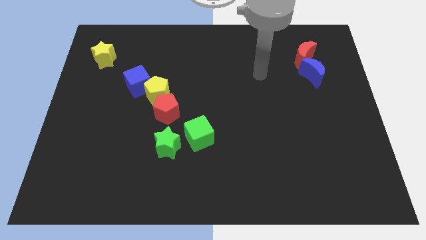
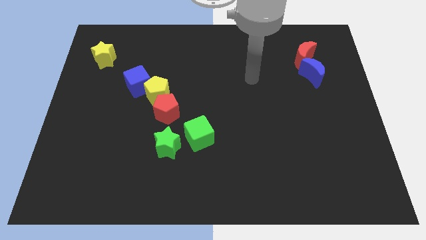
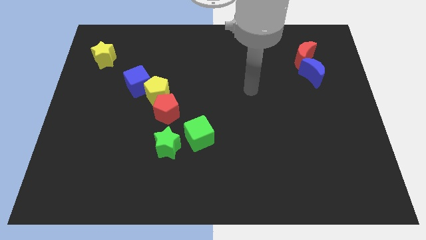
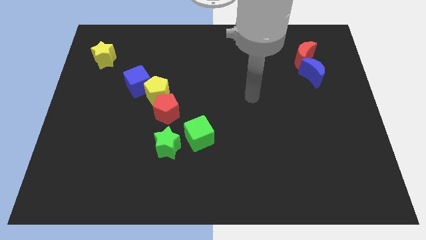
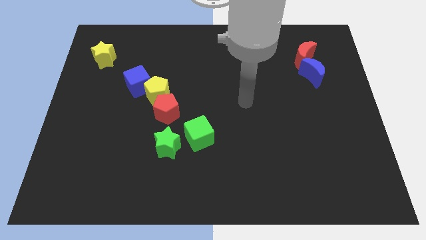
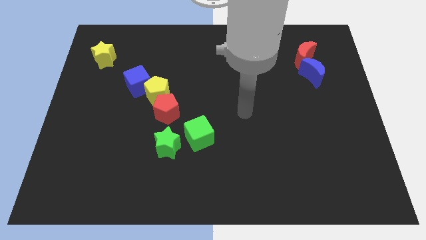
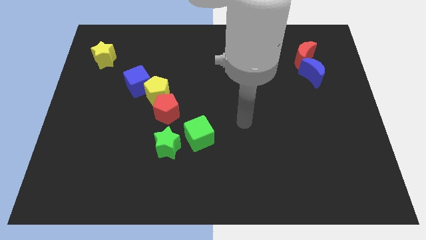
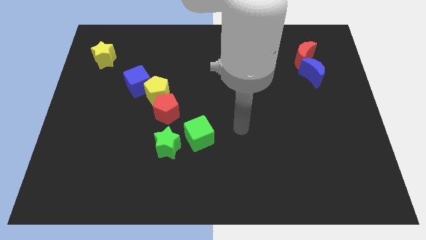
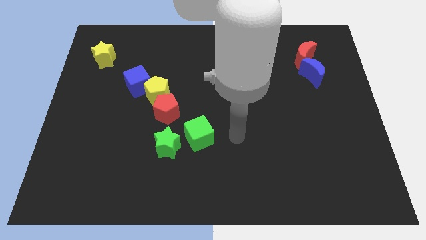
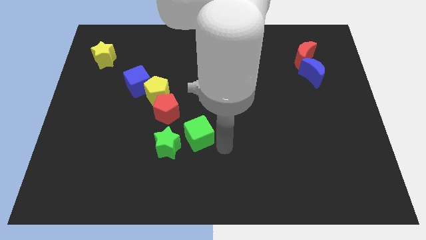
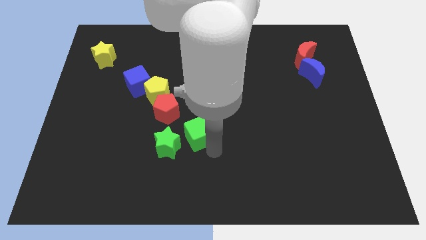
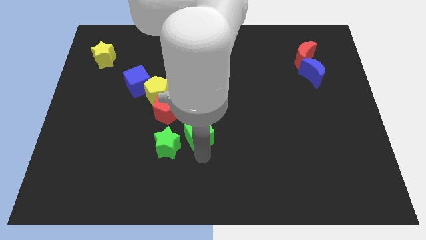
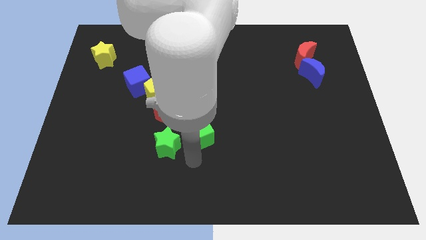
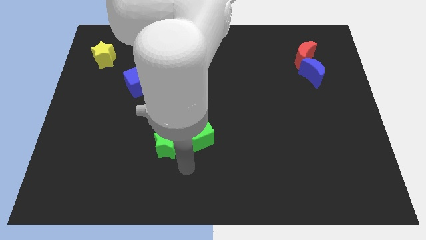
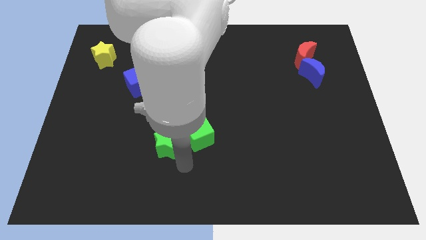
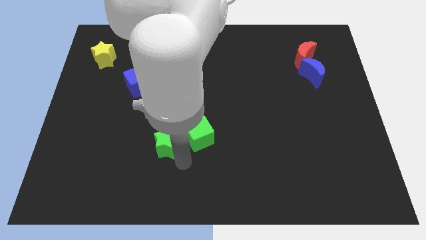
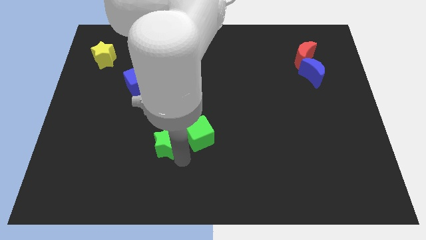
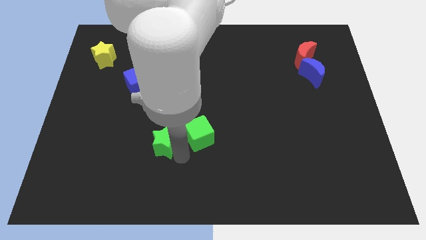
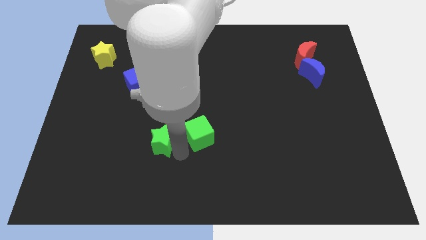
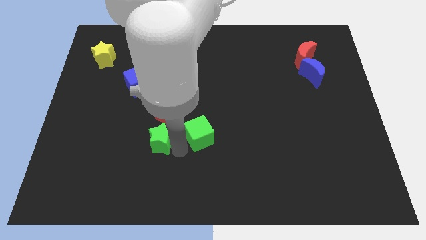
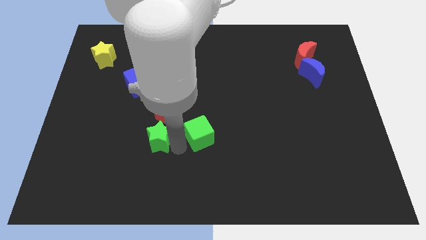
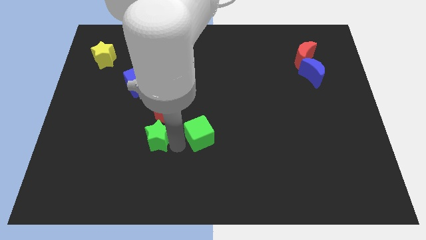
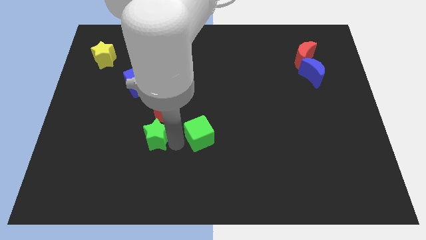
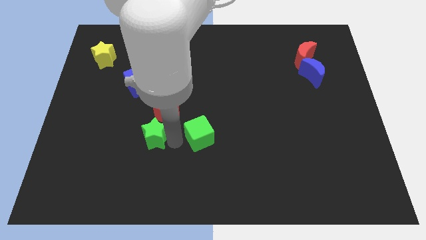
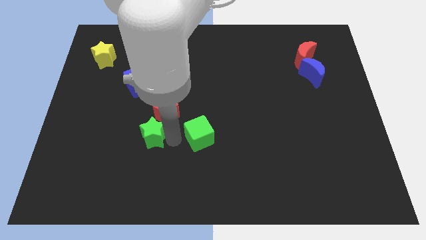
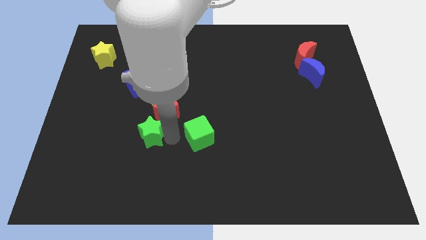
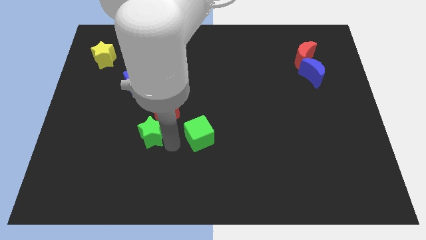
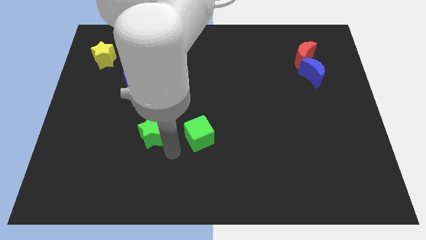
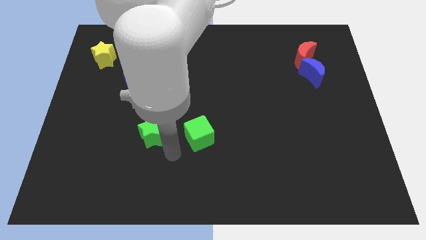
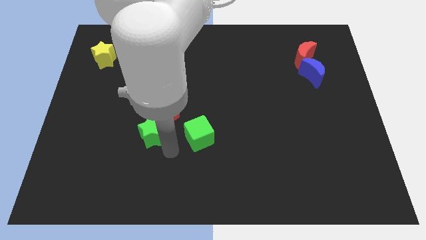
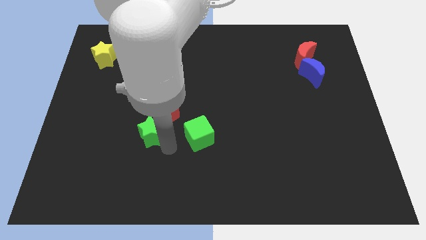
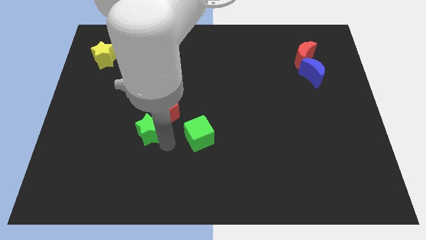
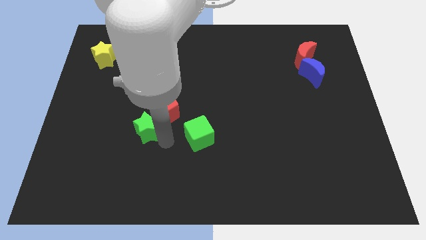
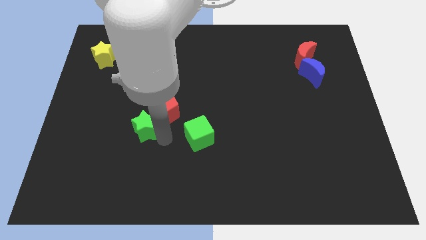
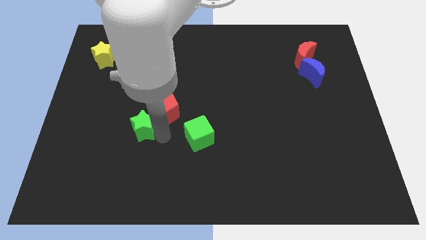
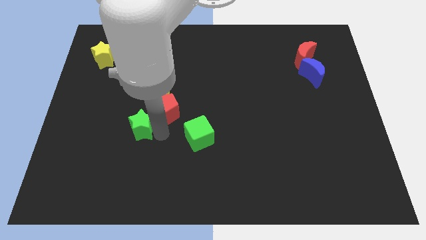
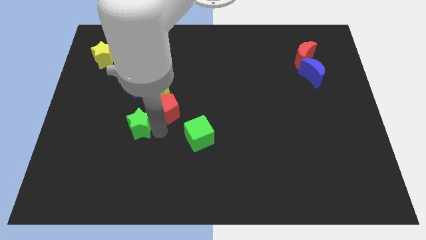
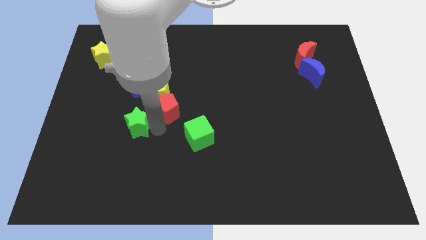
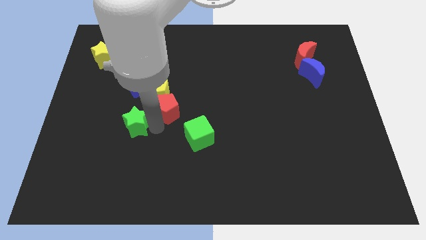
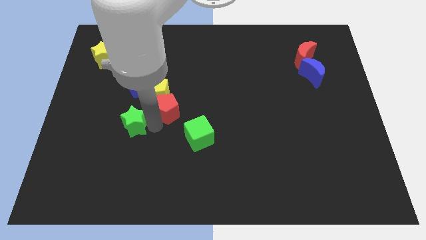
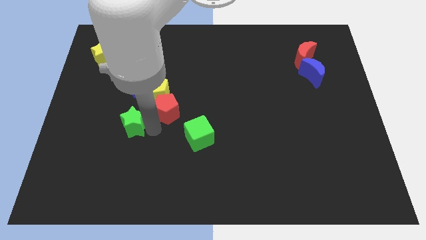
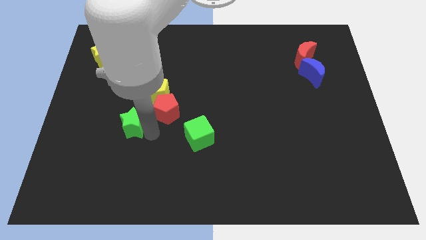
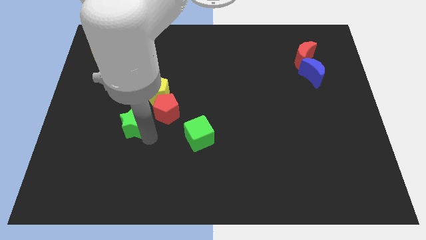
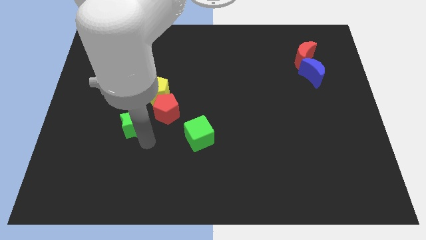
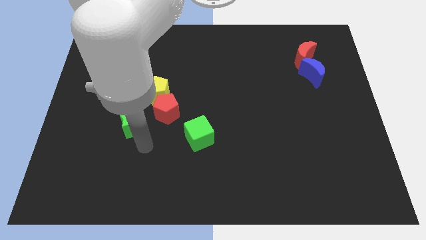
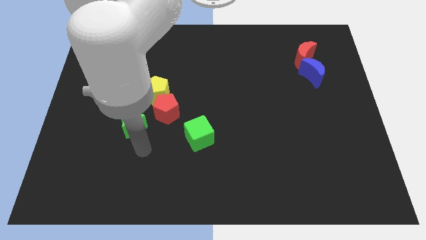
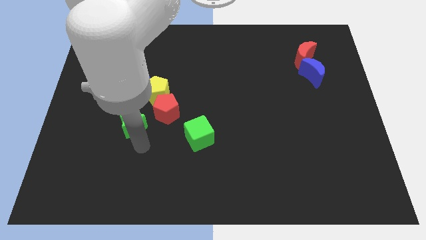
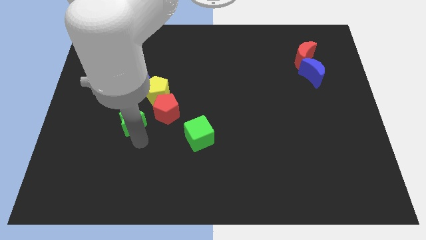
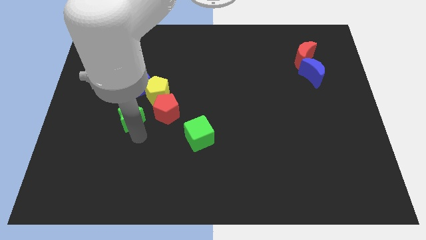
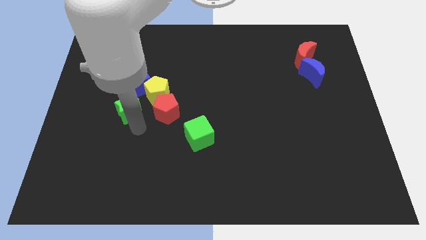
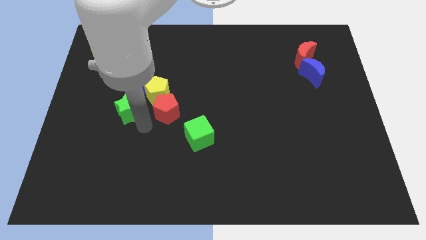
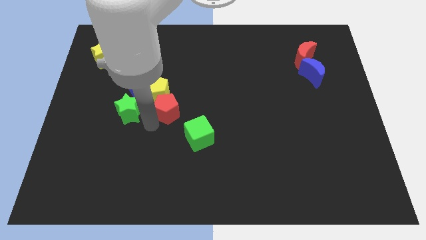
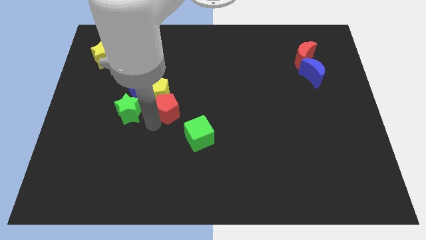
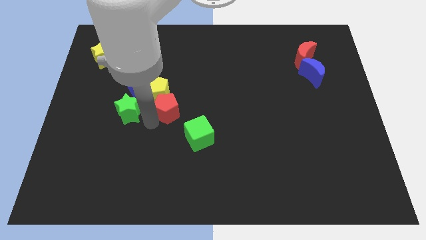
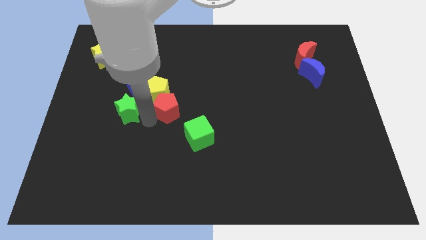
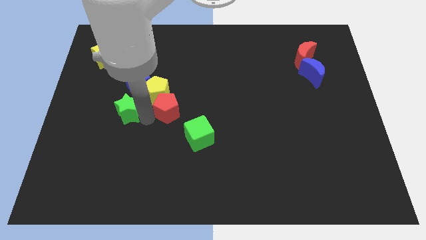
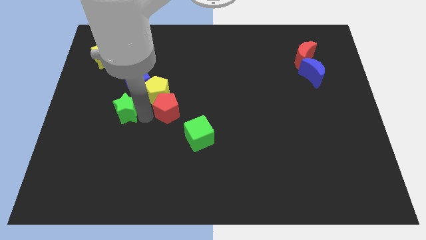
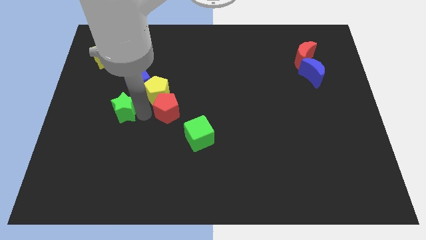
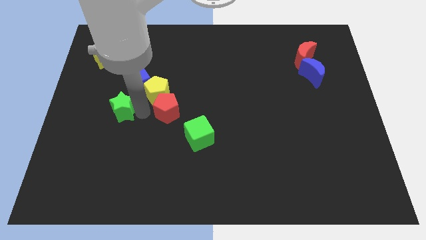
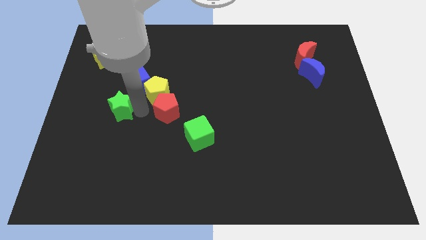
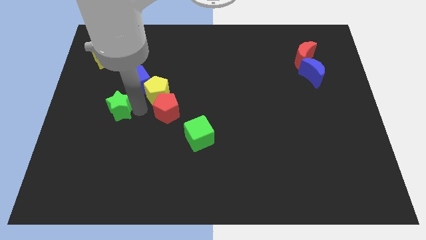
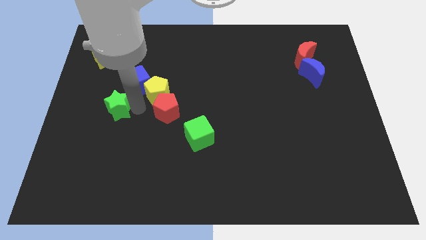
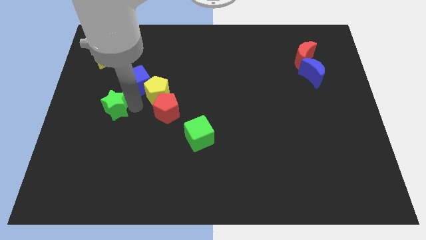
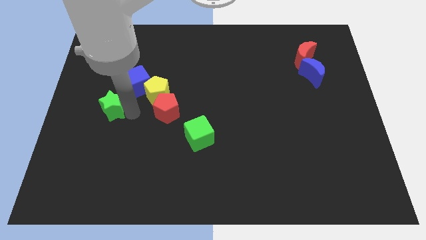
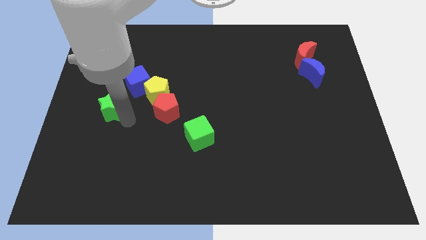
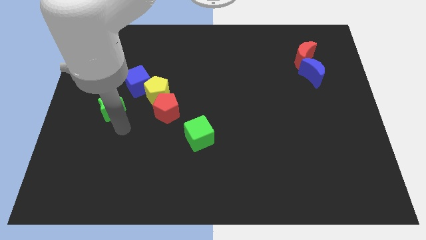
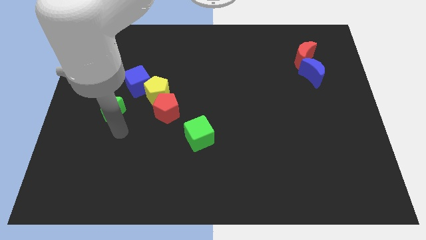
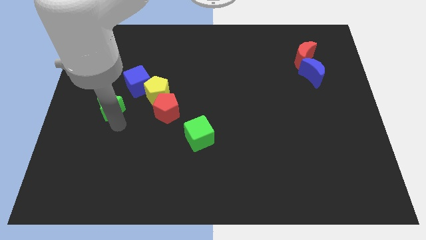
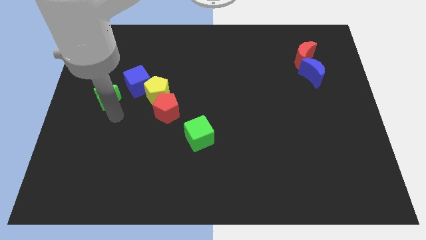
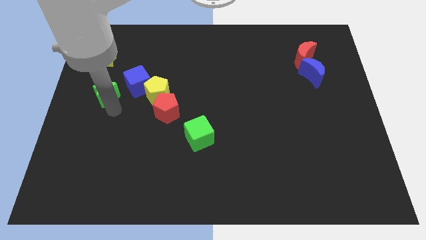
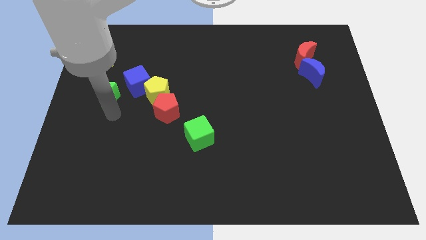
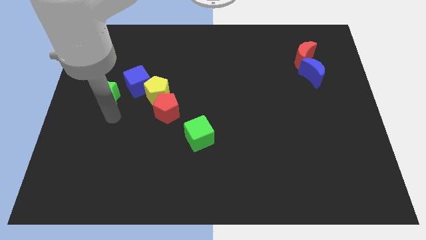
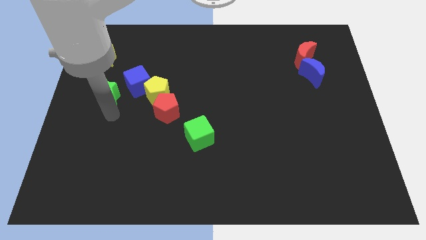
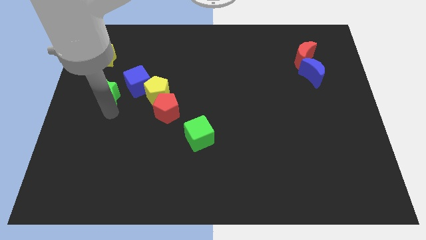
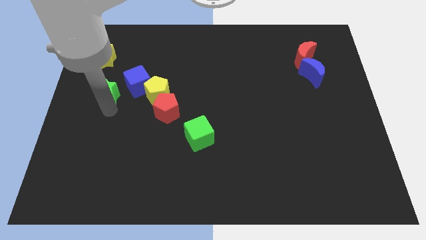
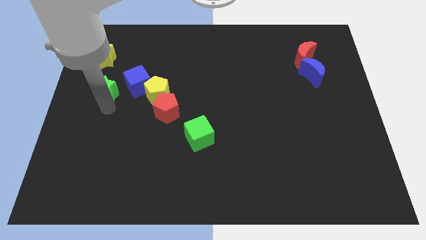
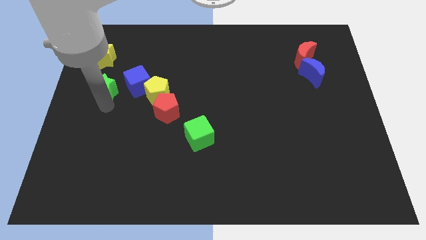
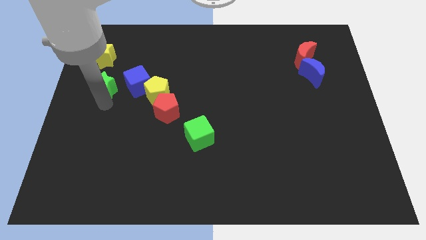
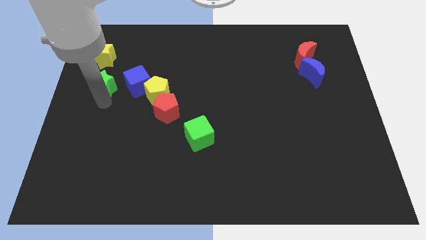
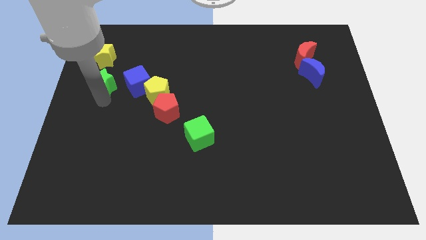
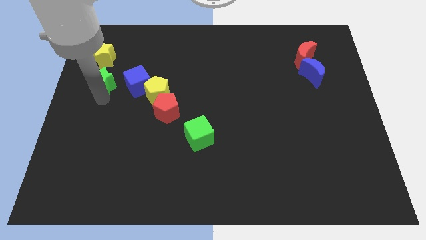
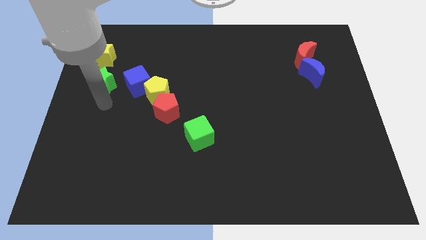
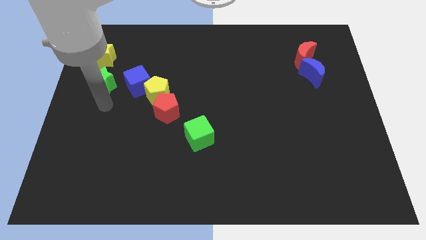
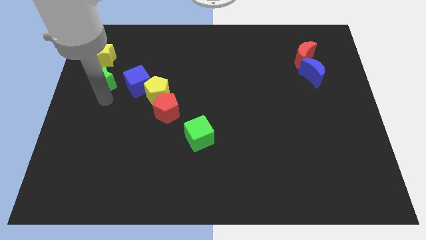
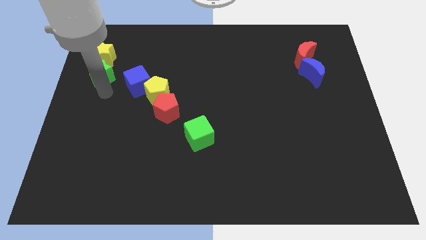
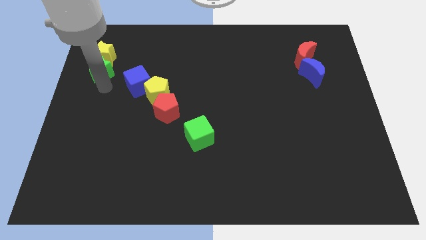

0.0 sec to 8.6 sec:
put the green star close to the yellow star
